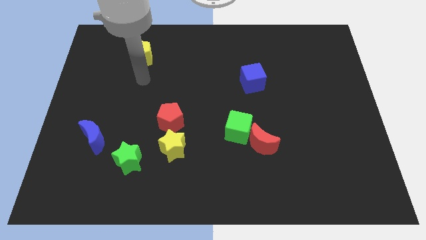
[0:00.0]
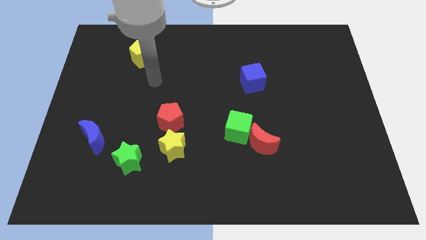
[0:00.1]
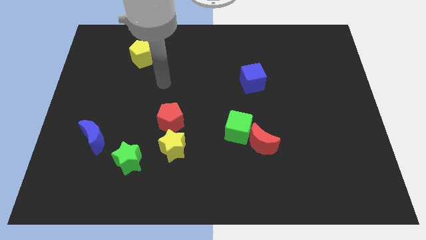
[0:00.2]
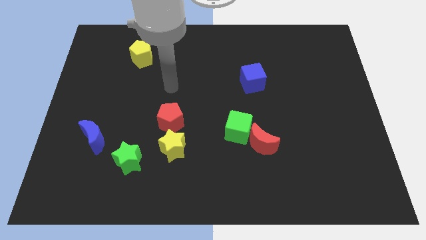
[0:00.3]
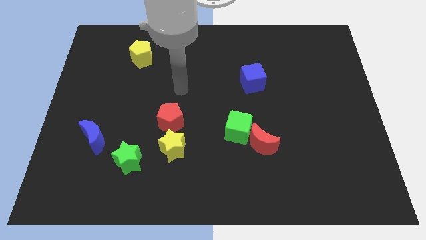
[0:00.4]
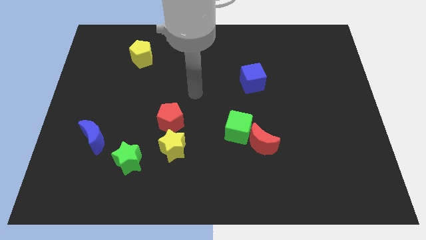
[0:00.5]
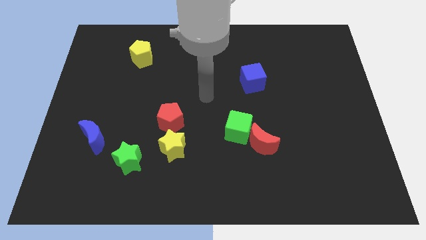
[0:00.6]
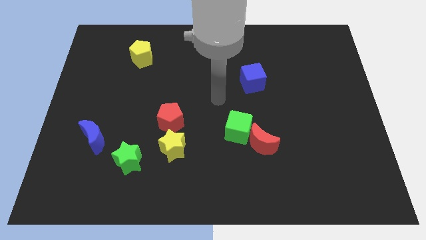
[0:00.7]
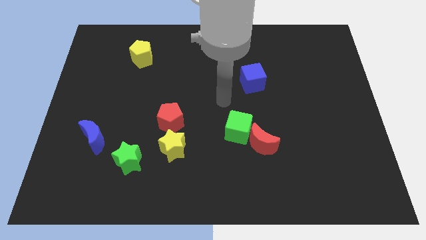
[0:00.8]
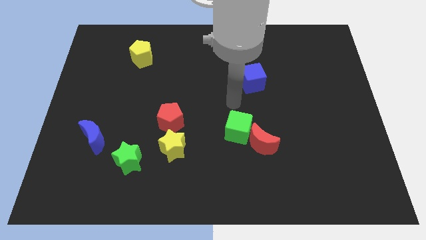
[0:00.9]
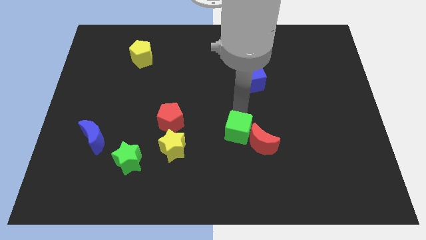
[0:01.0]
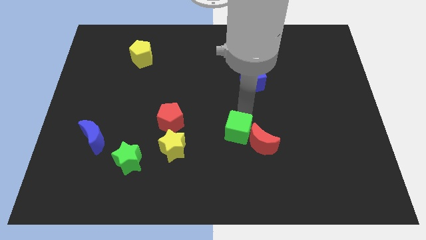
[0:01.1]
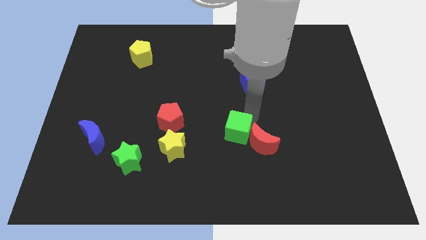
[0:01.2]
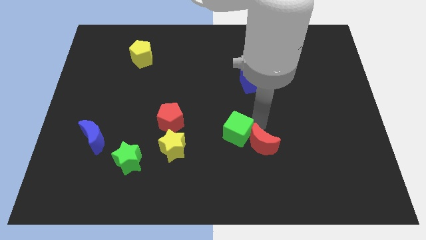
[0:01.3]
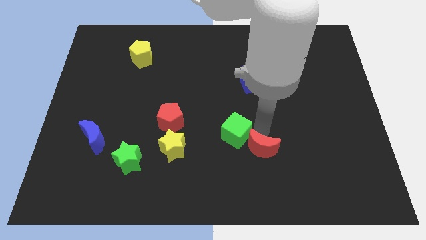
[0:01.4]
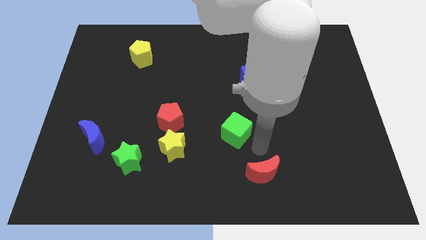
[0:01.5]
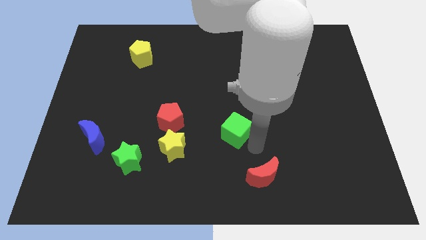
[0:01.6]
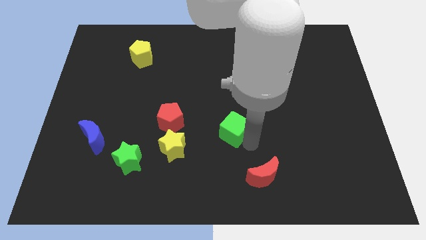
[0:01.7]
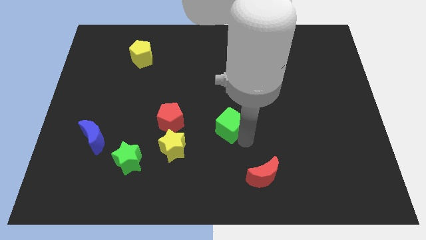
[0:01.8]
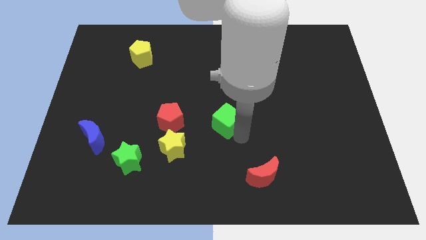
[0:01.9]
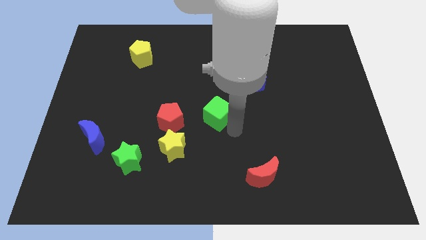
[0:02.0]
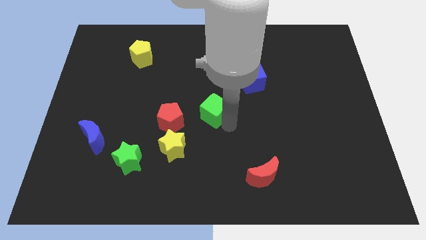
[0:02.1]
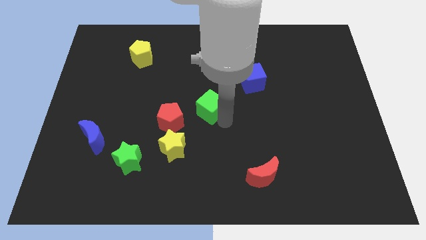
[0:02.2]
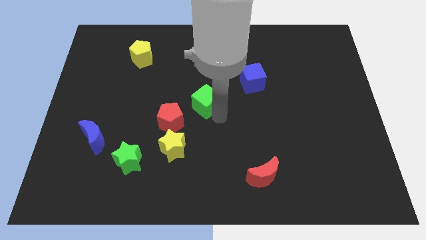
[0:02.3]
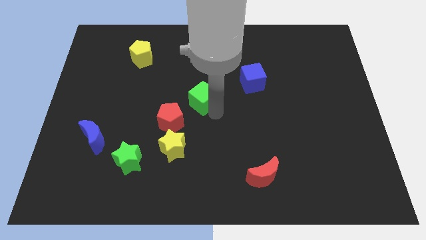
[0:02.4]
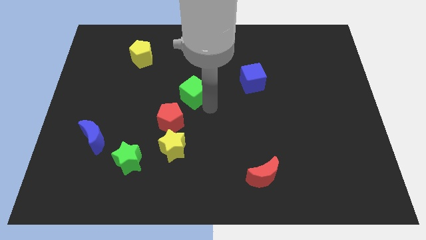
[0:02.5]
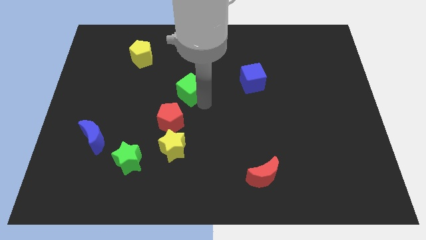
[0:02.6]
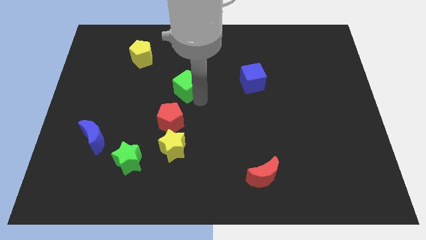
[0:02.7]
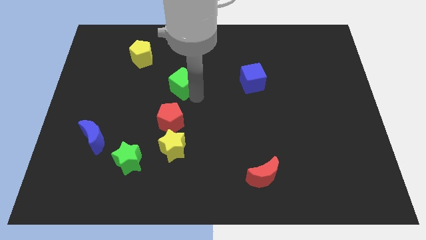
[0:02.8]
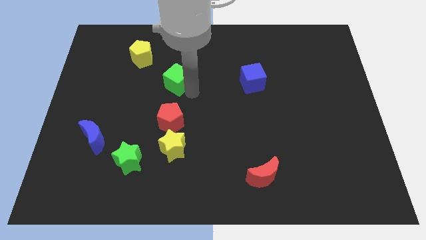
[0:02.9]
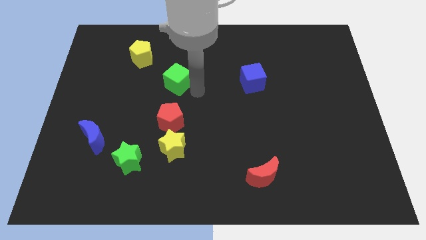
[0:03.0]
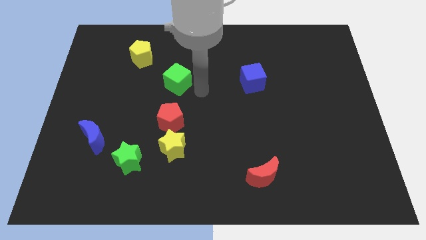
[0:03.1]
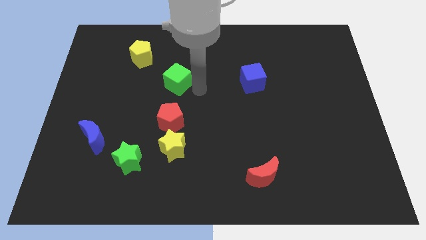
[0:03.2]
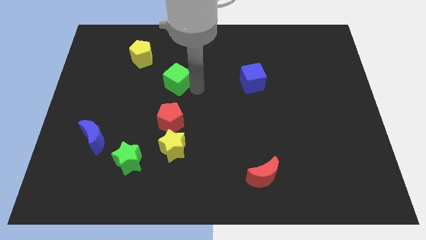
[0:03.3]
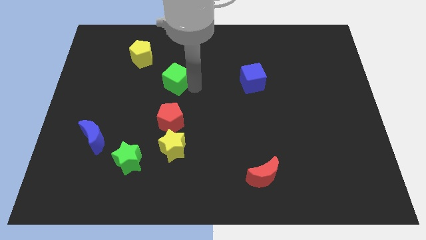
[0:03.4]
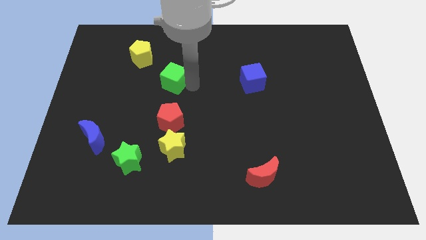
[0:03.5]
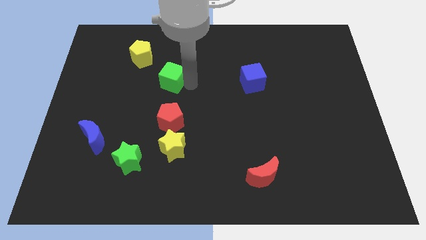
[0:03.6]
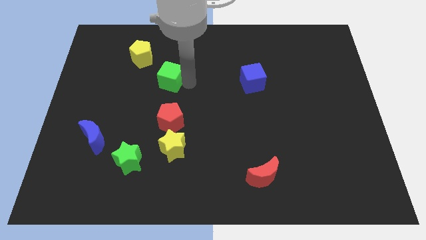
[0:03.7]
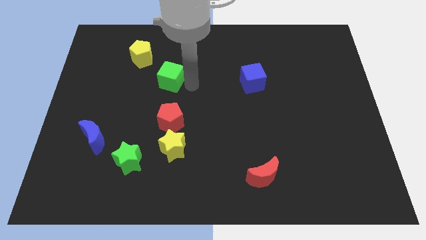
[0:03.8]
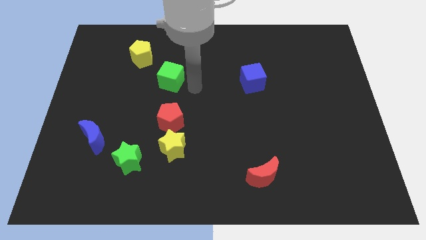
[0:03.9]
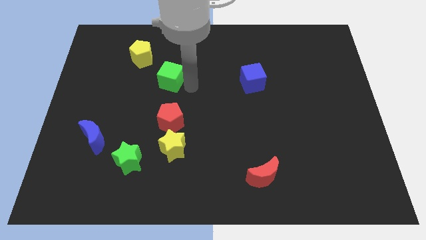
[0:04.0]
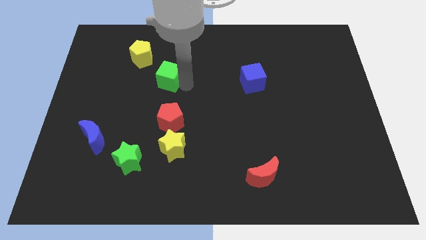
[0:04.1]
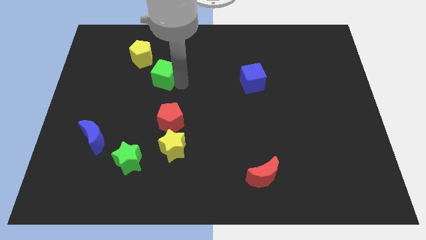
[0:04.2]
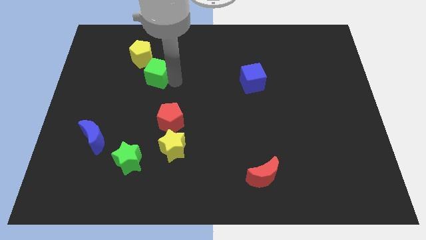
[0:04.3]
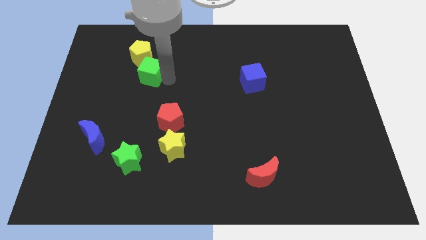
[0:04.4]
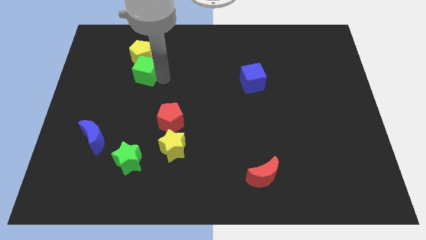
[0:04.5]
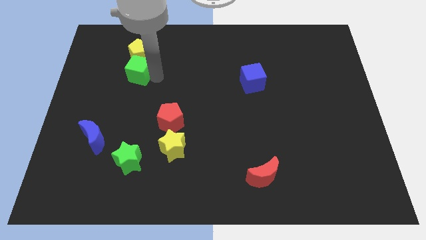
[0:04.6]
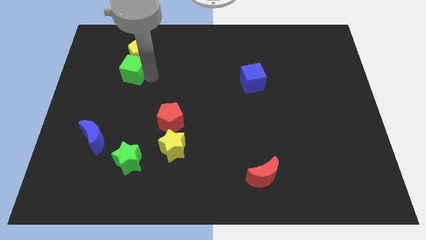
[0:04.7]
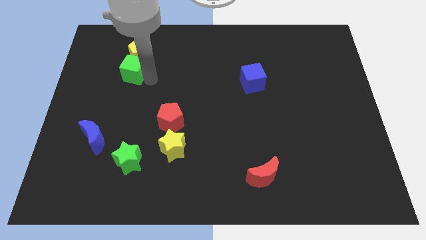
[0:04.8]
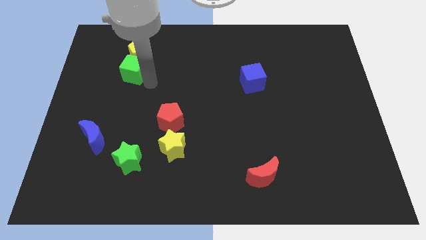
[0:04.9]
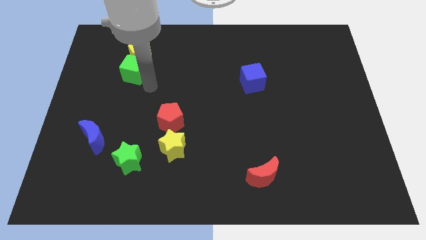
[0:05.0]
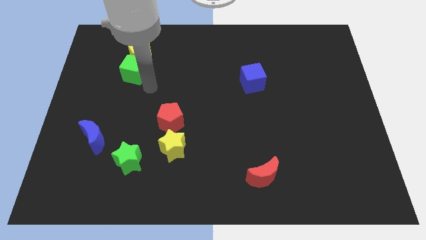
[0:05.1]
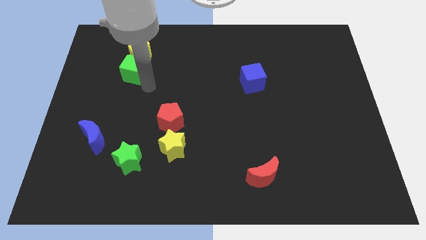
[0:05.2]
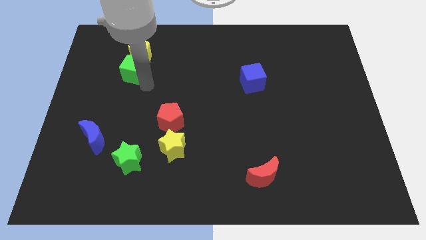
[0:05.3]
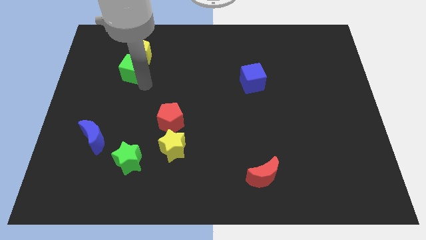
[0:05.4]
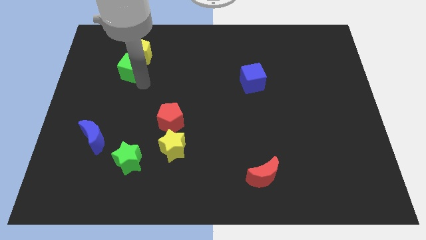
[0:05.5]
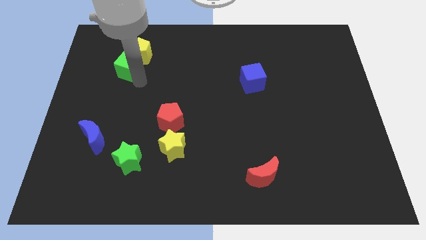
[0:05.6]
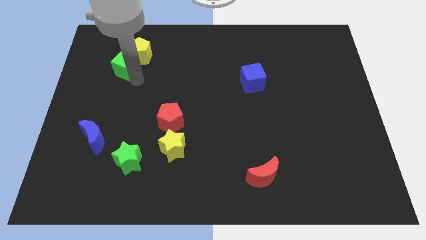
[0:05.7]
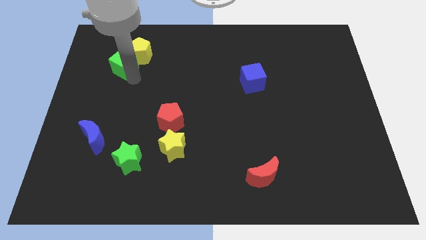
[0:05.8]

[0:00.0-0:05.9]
move the green cube to the left of the yellow pentagon

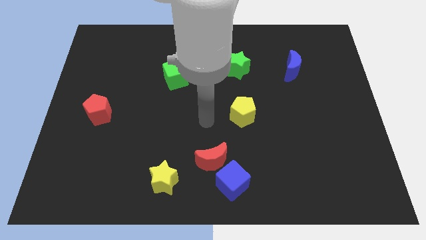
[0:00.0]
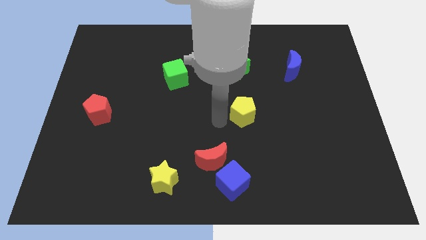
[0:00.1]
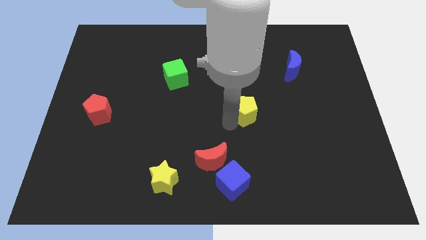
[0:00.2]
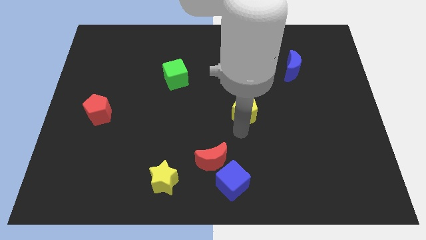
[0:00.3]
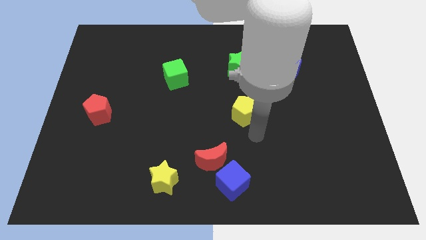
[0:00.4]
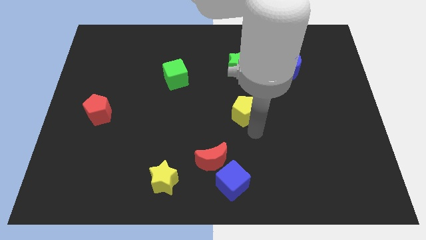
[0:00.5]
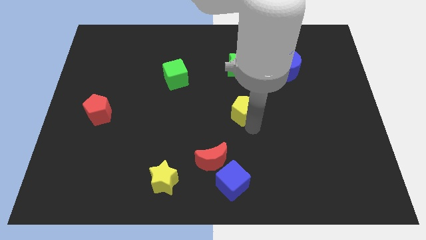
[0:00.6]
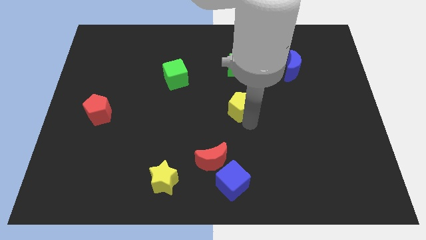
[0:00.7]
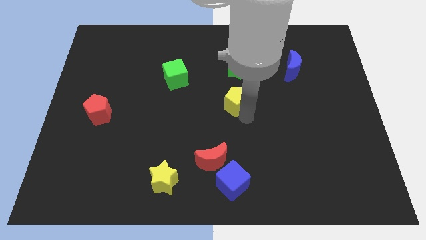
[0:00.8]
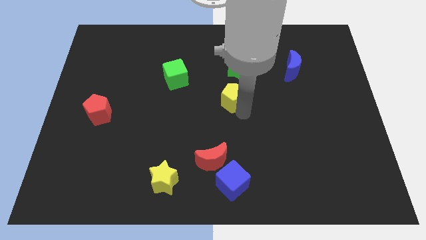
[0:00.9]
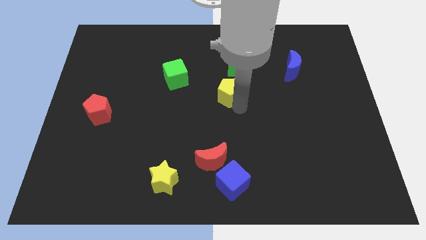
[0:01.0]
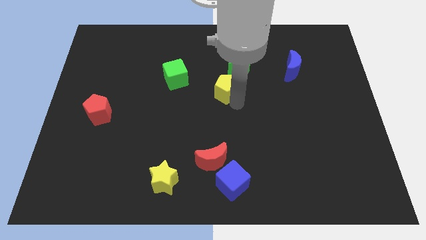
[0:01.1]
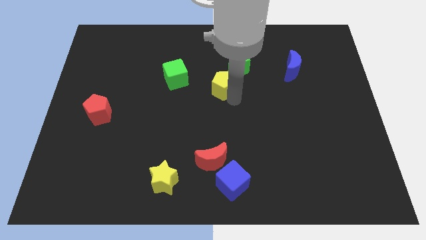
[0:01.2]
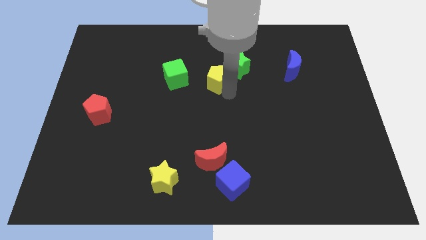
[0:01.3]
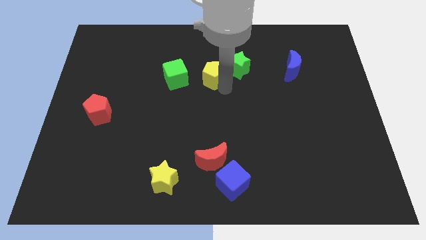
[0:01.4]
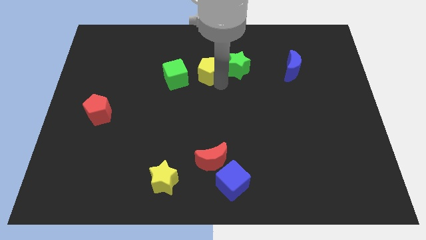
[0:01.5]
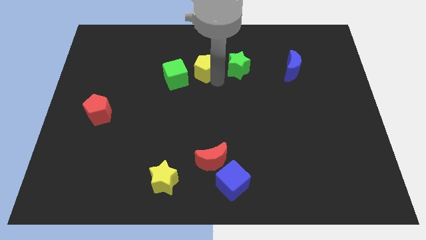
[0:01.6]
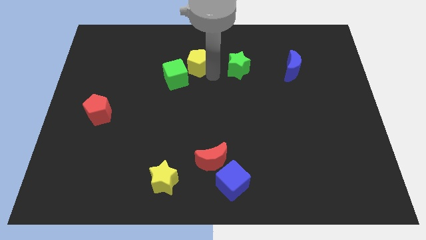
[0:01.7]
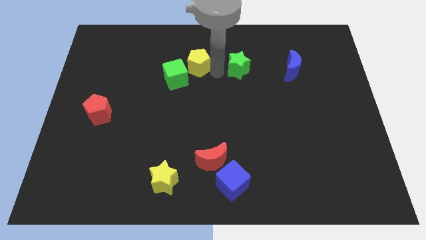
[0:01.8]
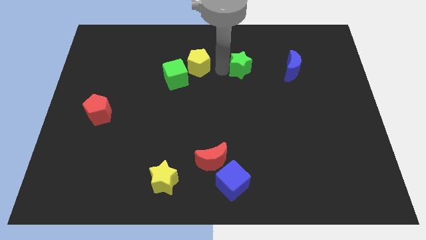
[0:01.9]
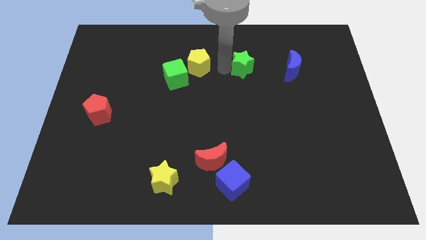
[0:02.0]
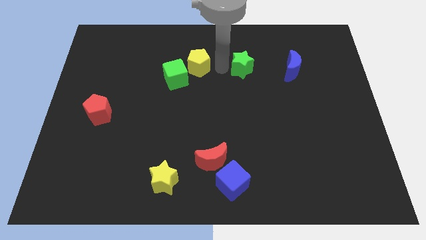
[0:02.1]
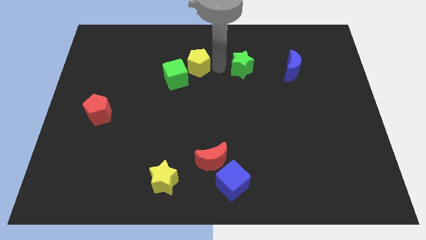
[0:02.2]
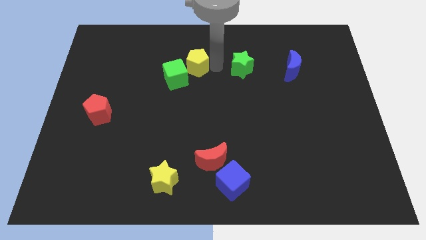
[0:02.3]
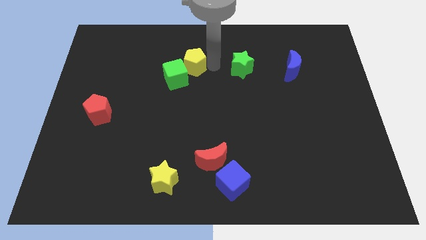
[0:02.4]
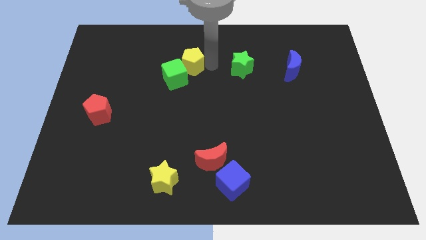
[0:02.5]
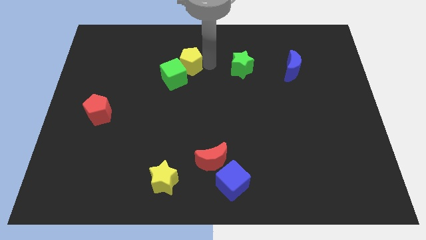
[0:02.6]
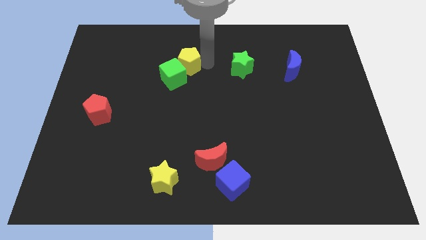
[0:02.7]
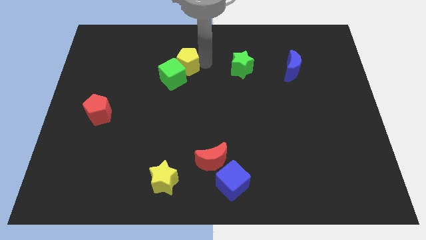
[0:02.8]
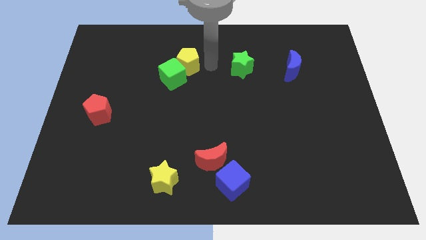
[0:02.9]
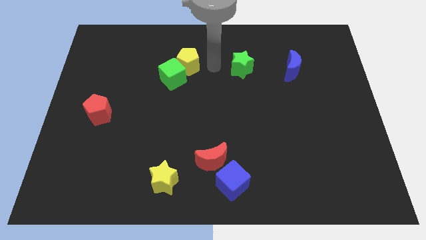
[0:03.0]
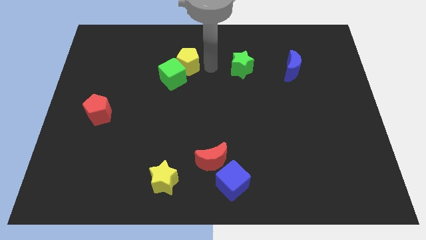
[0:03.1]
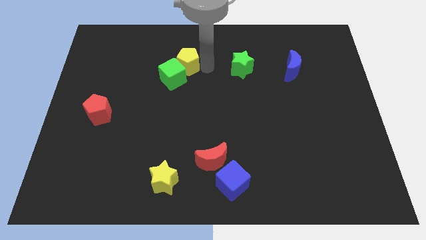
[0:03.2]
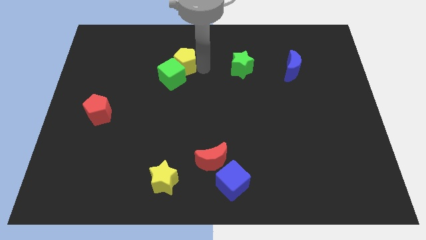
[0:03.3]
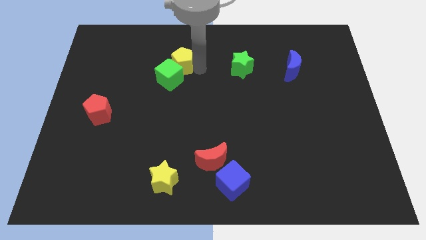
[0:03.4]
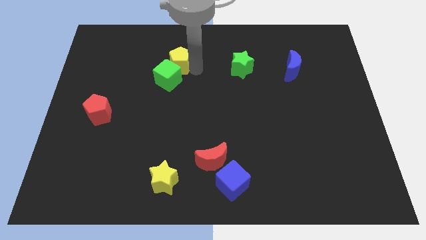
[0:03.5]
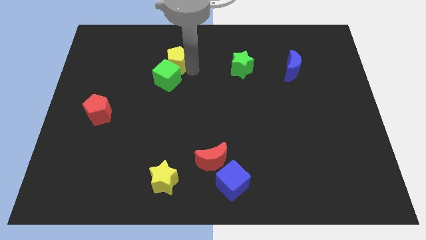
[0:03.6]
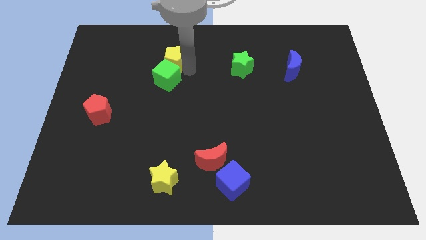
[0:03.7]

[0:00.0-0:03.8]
put the yellow pentagon to the top left of the green cube
